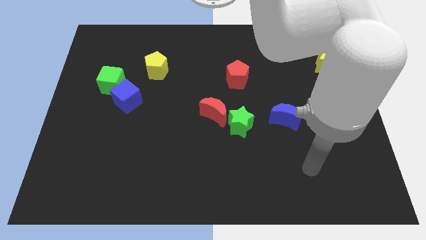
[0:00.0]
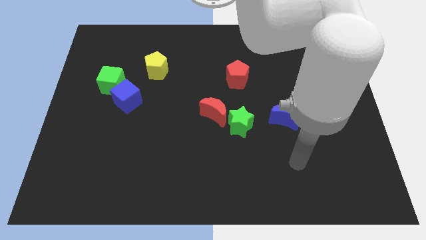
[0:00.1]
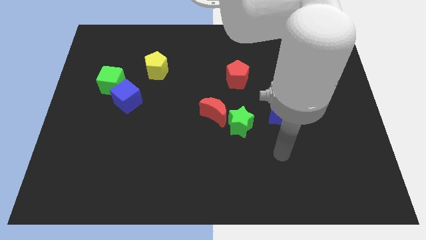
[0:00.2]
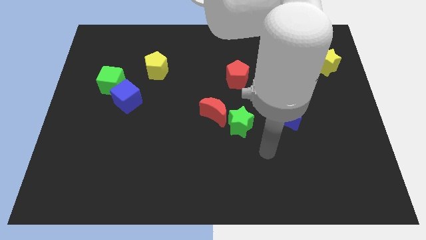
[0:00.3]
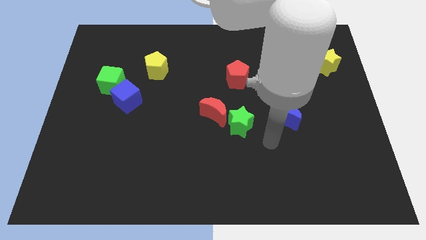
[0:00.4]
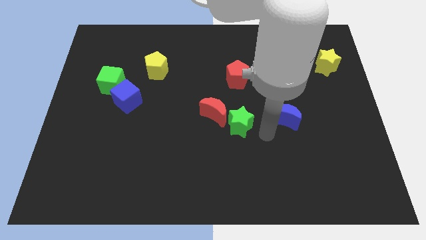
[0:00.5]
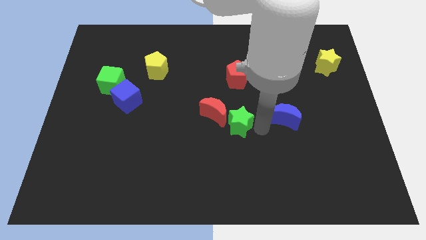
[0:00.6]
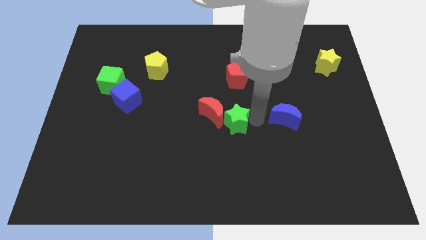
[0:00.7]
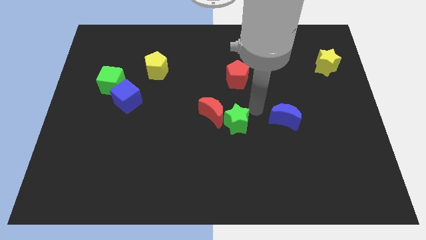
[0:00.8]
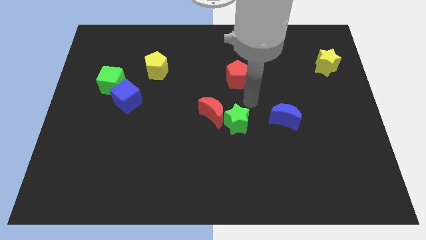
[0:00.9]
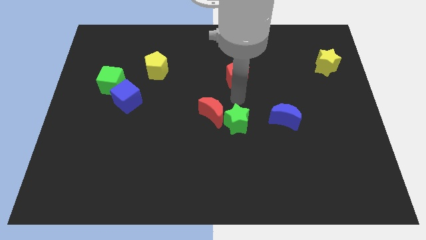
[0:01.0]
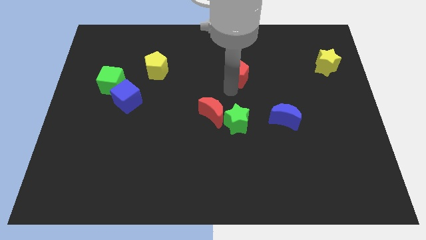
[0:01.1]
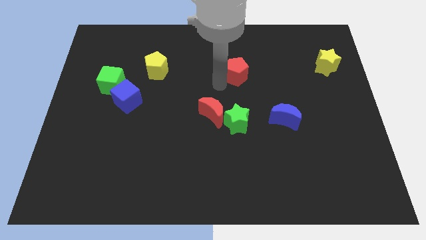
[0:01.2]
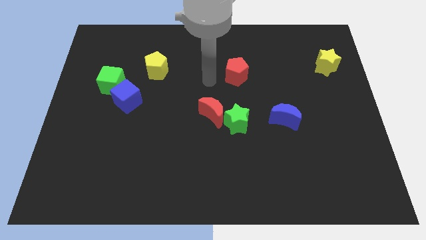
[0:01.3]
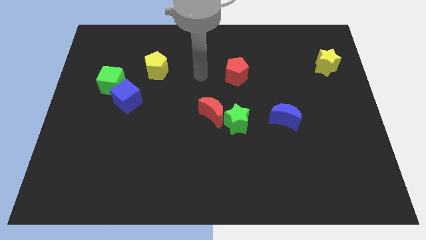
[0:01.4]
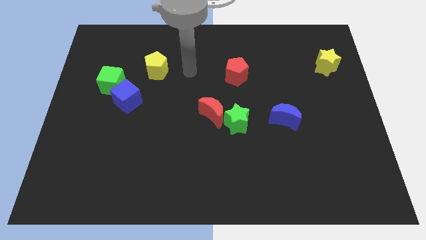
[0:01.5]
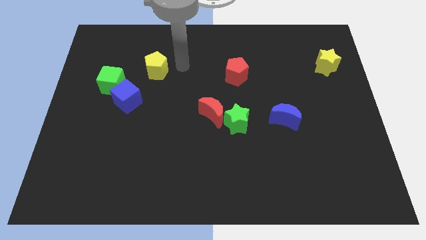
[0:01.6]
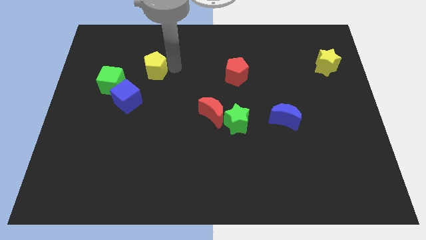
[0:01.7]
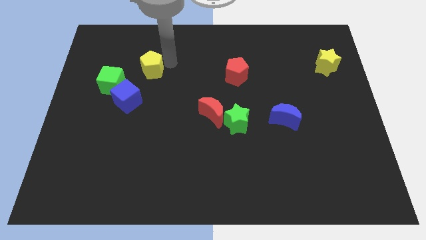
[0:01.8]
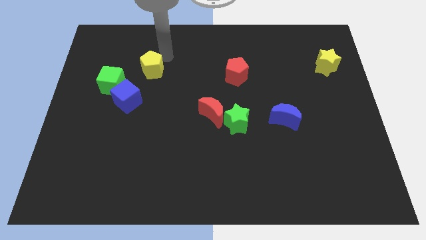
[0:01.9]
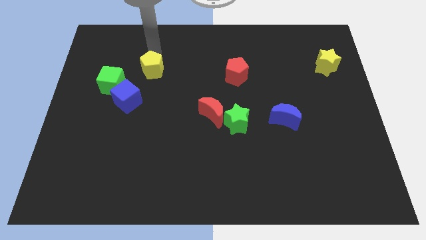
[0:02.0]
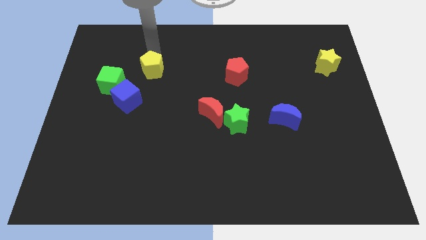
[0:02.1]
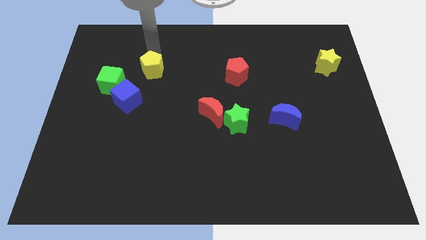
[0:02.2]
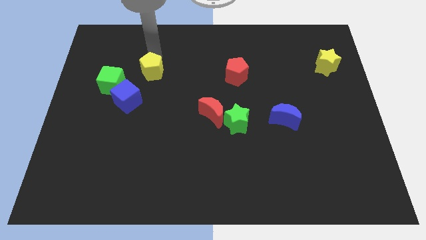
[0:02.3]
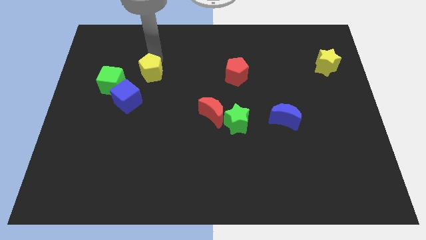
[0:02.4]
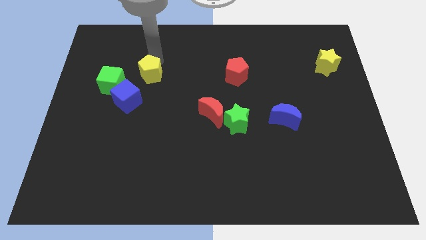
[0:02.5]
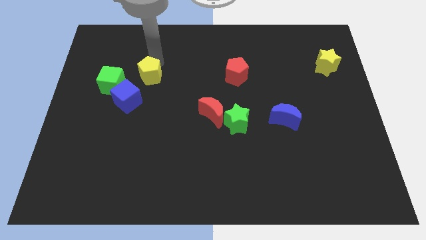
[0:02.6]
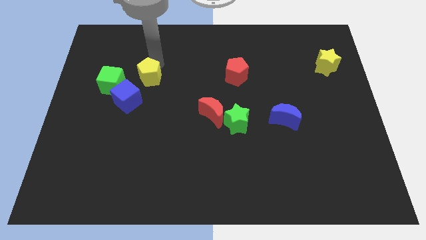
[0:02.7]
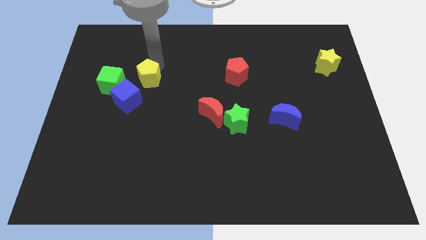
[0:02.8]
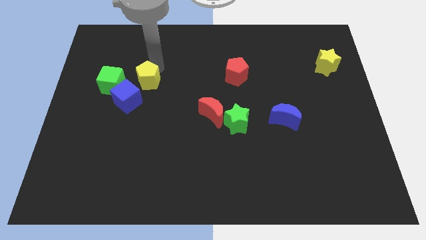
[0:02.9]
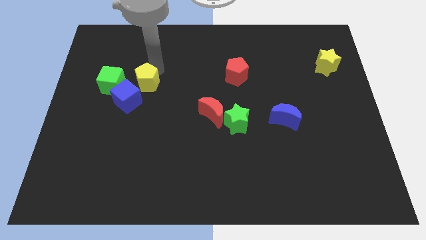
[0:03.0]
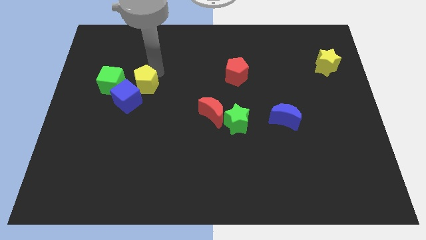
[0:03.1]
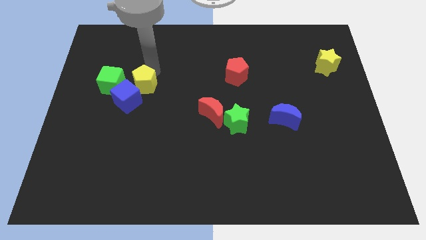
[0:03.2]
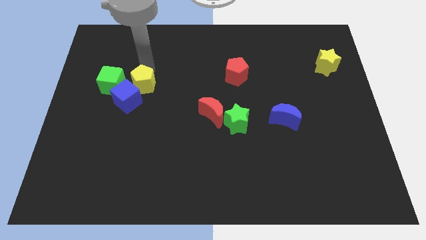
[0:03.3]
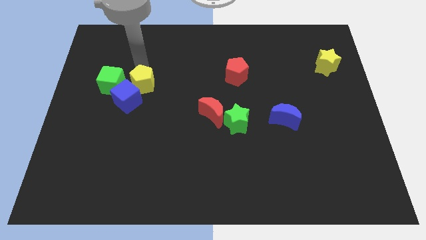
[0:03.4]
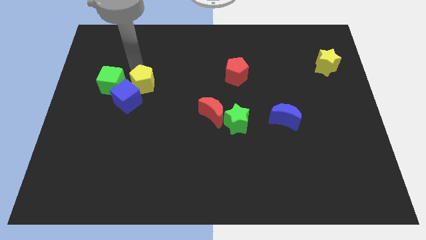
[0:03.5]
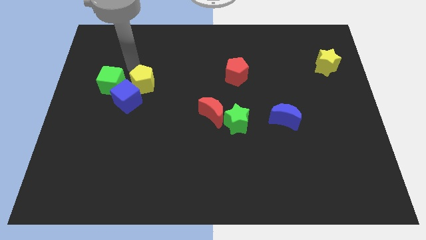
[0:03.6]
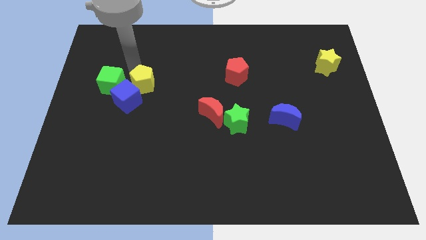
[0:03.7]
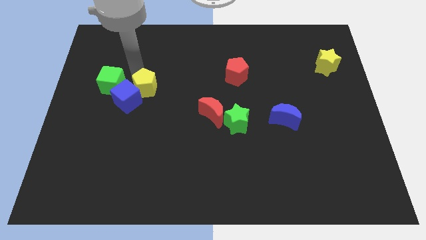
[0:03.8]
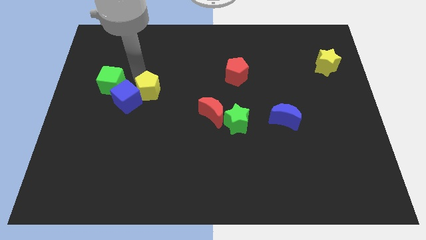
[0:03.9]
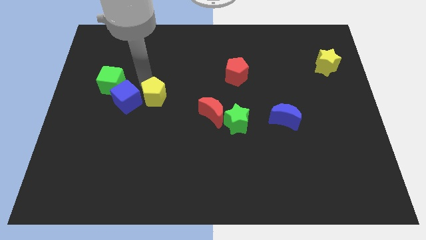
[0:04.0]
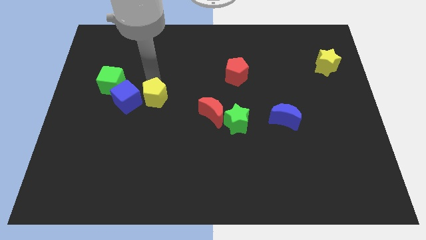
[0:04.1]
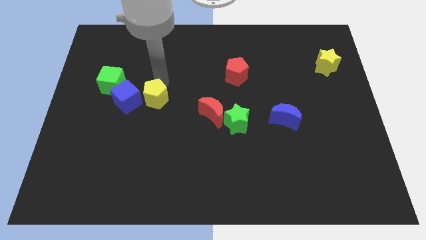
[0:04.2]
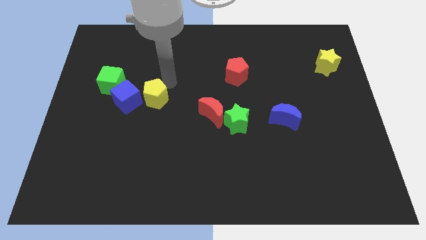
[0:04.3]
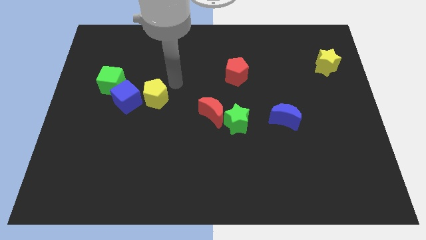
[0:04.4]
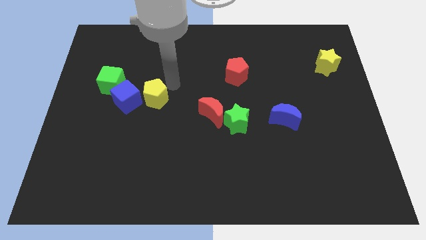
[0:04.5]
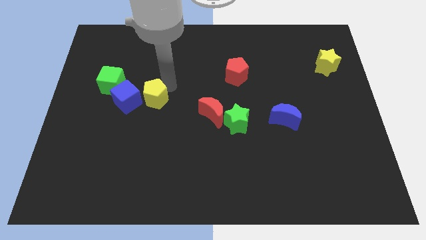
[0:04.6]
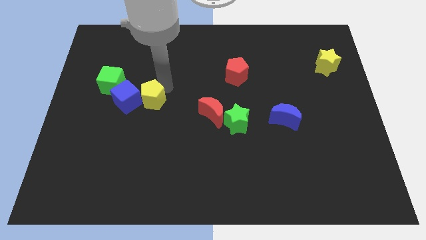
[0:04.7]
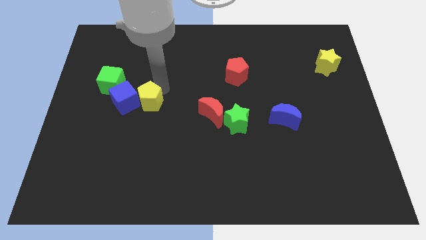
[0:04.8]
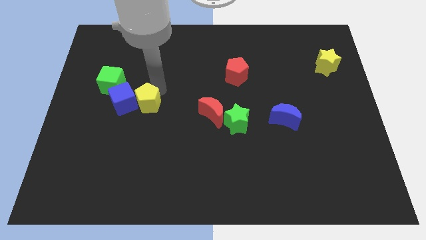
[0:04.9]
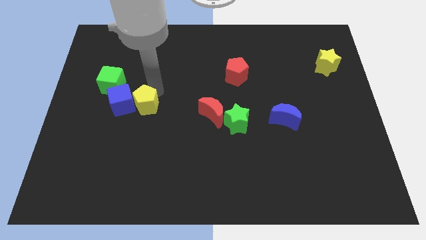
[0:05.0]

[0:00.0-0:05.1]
slightly push the yellow pentagon downwards and then left

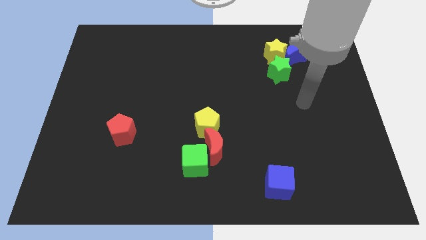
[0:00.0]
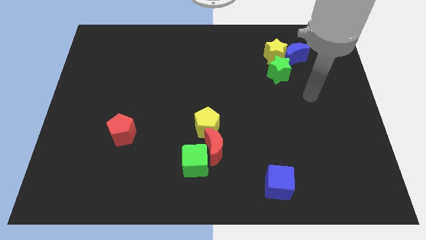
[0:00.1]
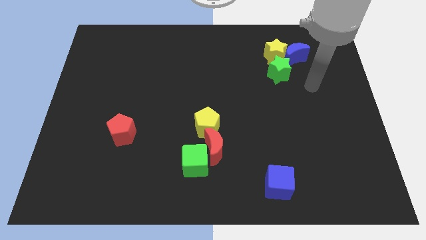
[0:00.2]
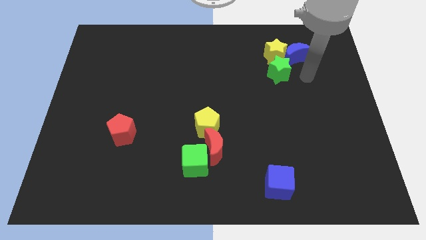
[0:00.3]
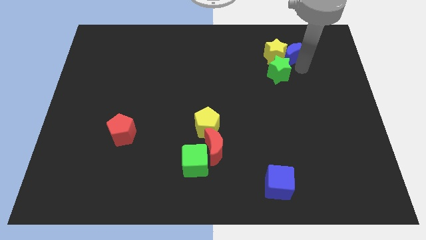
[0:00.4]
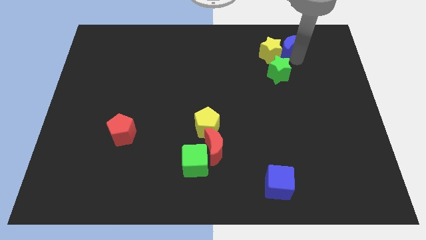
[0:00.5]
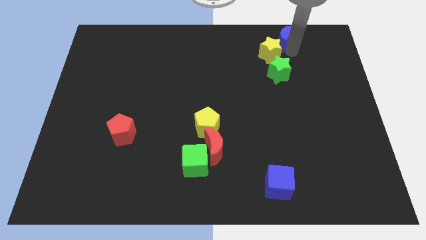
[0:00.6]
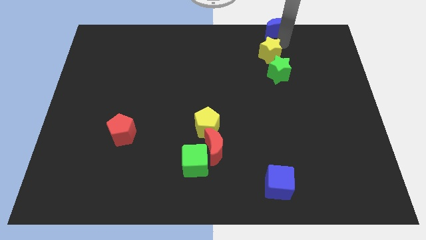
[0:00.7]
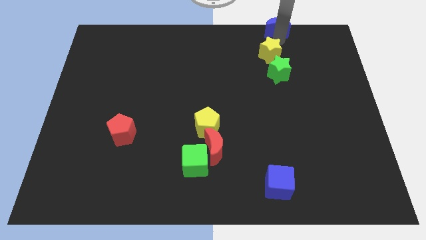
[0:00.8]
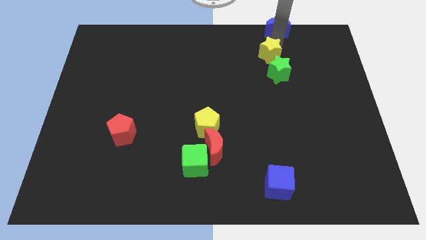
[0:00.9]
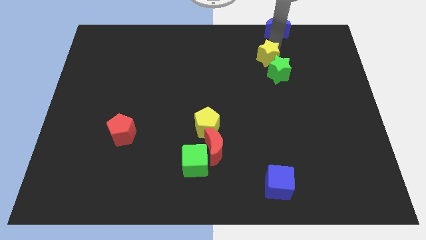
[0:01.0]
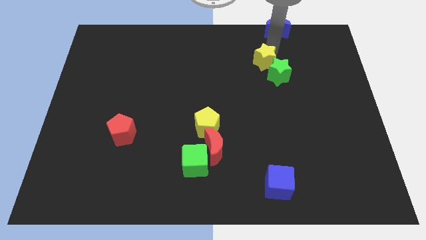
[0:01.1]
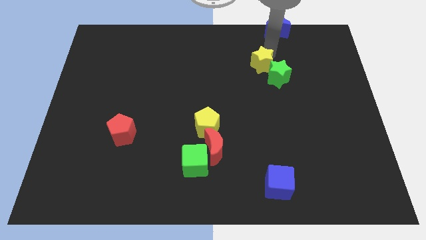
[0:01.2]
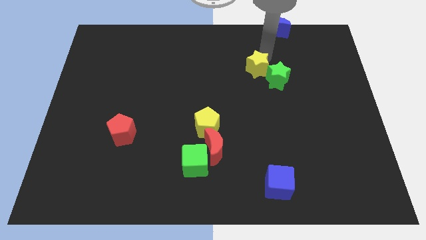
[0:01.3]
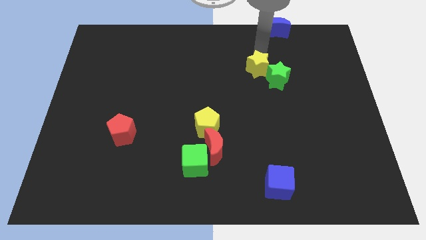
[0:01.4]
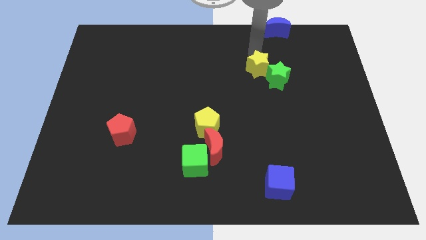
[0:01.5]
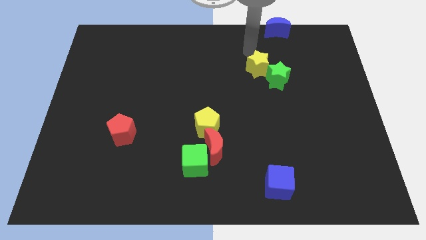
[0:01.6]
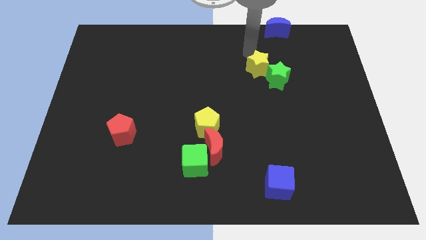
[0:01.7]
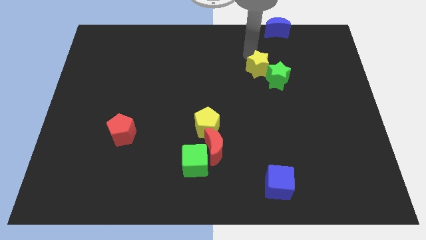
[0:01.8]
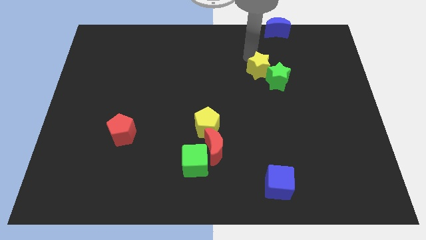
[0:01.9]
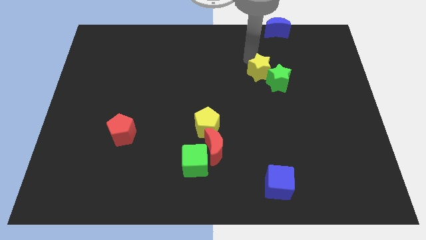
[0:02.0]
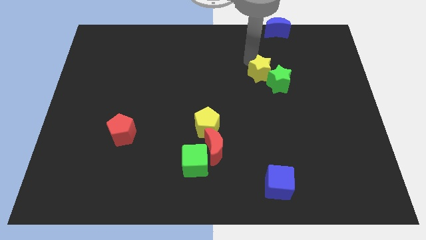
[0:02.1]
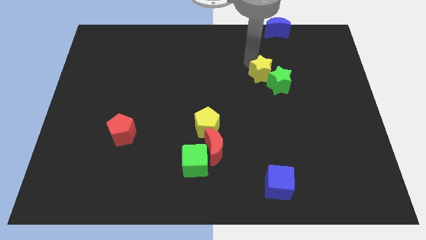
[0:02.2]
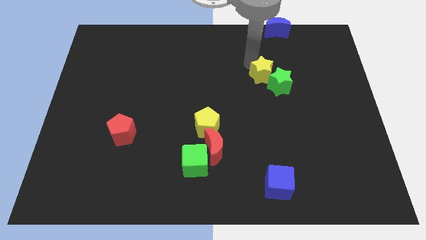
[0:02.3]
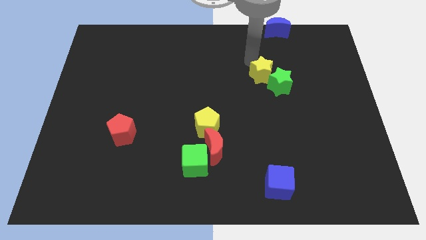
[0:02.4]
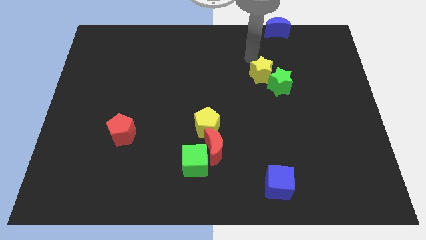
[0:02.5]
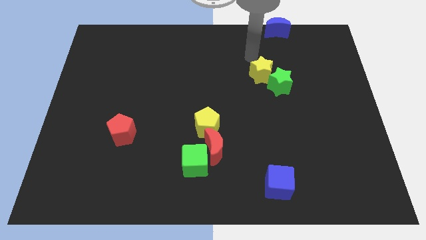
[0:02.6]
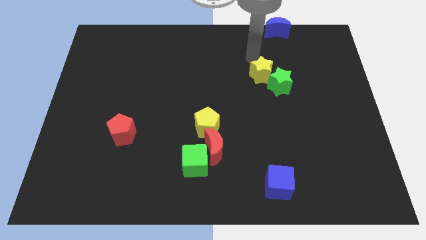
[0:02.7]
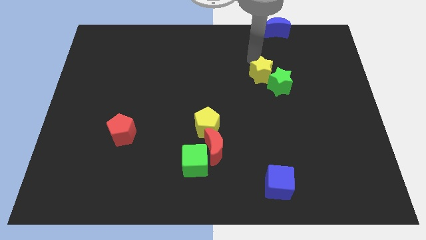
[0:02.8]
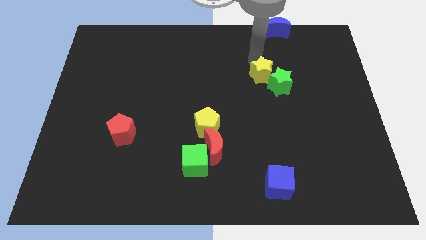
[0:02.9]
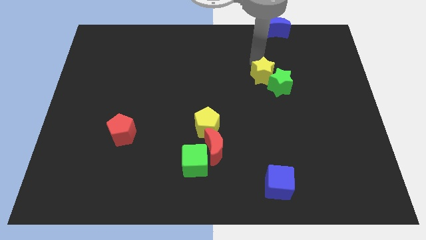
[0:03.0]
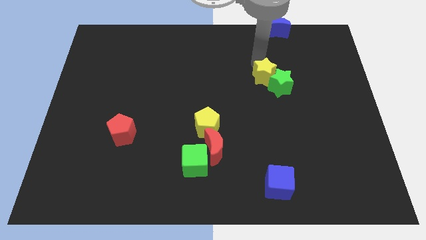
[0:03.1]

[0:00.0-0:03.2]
slightly slide the yellow star downwards
